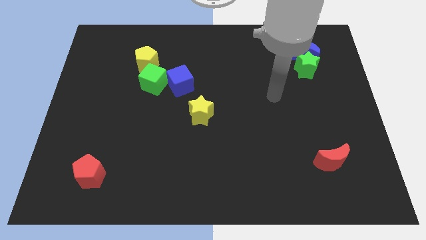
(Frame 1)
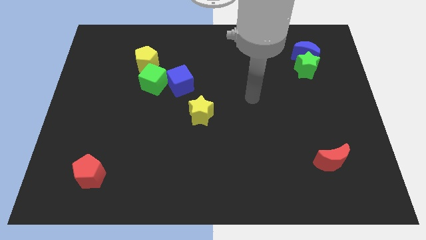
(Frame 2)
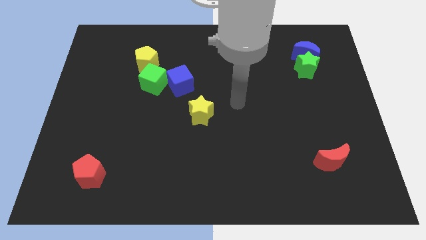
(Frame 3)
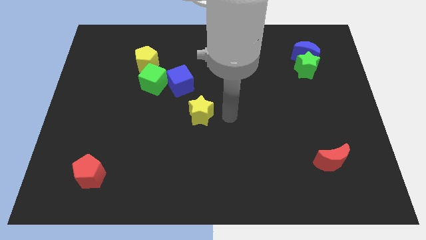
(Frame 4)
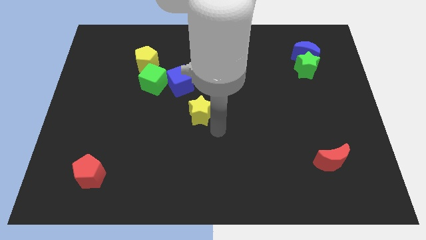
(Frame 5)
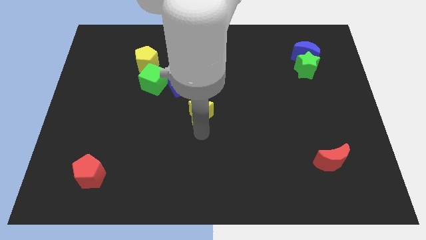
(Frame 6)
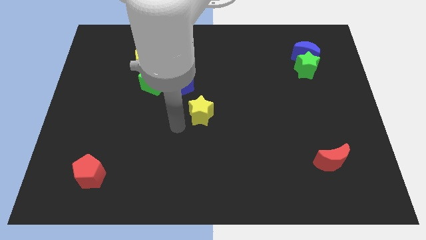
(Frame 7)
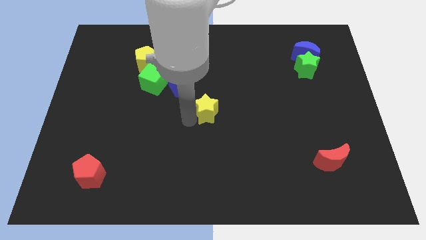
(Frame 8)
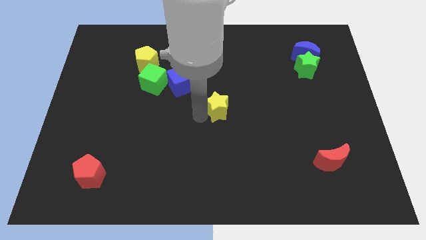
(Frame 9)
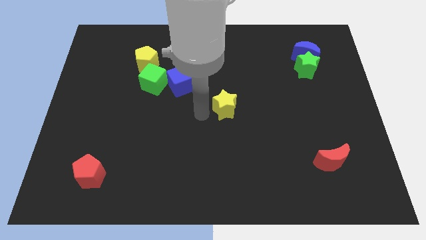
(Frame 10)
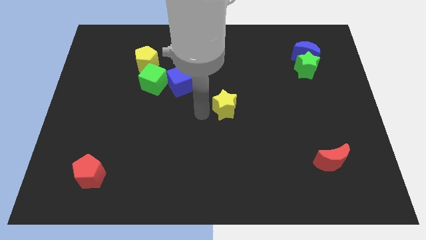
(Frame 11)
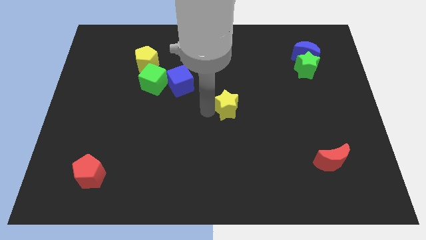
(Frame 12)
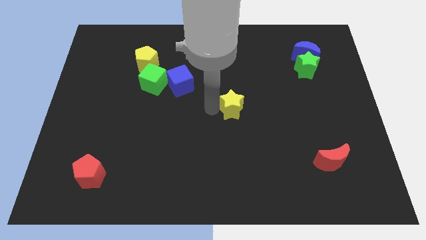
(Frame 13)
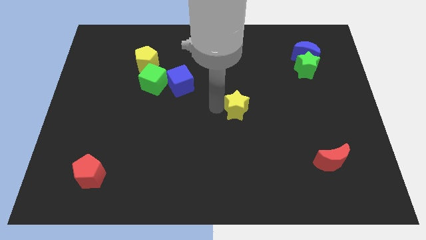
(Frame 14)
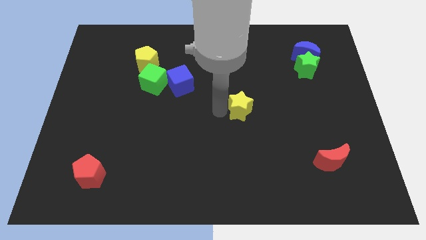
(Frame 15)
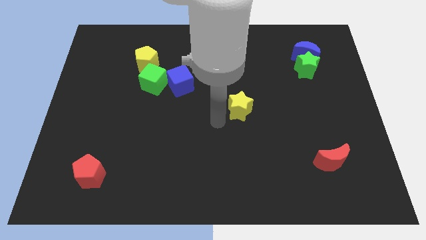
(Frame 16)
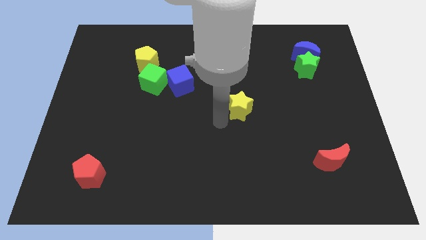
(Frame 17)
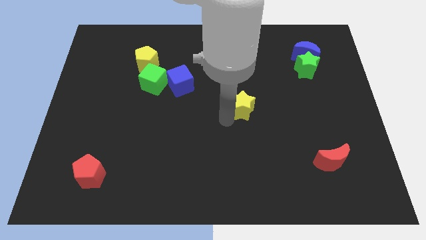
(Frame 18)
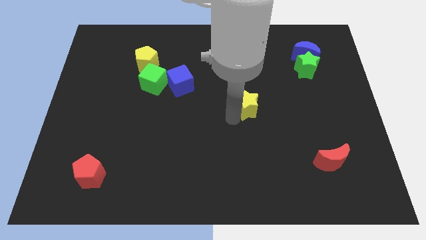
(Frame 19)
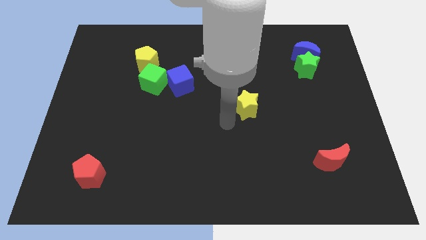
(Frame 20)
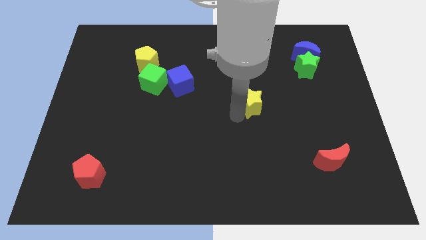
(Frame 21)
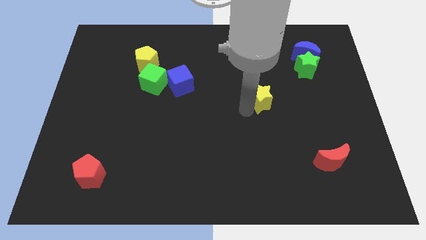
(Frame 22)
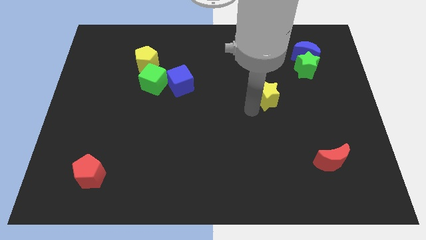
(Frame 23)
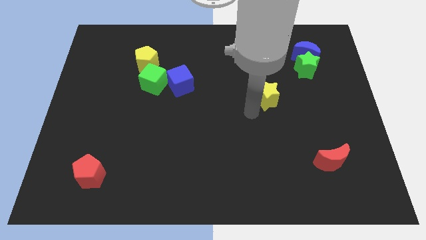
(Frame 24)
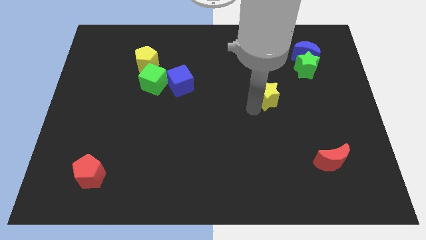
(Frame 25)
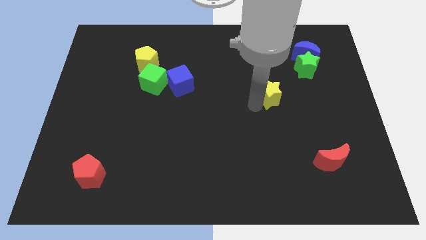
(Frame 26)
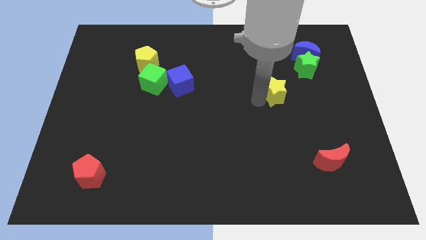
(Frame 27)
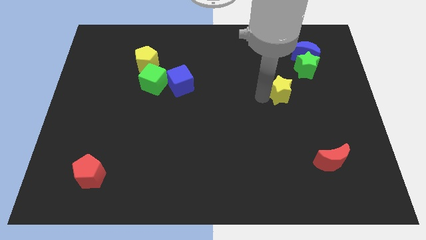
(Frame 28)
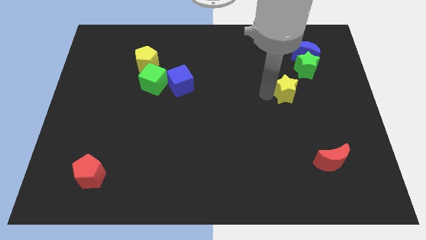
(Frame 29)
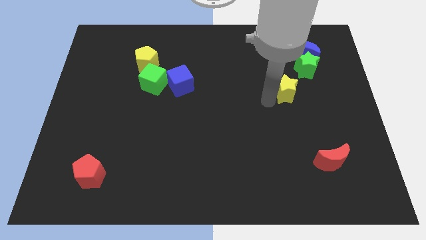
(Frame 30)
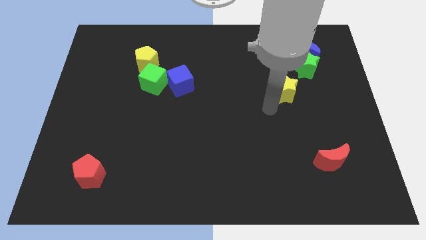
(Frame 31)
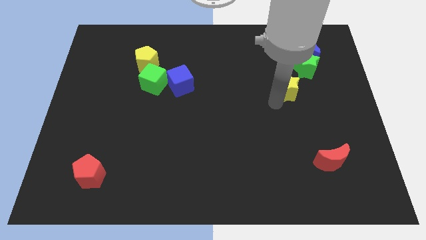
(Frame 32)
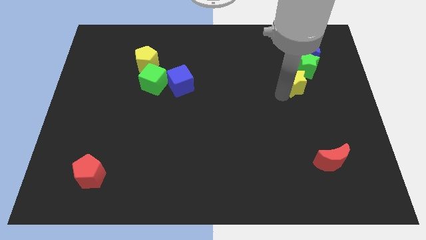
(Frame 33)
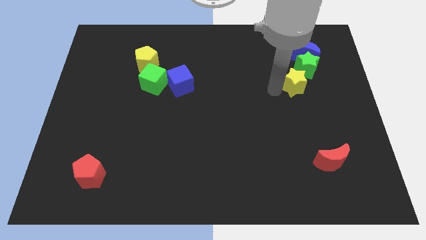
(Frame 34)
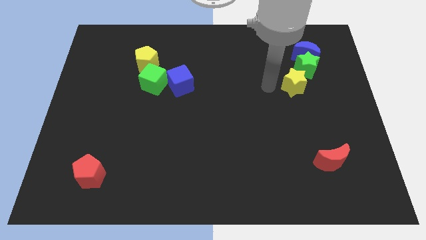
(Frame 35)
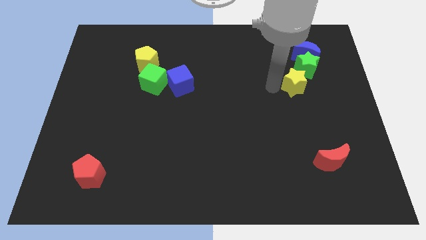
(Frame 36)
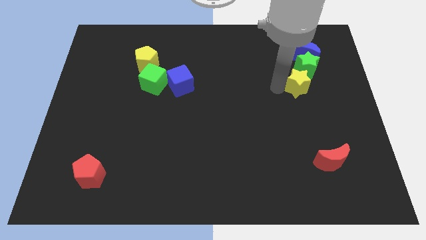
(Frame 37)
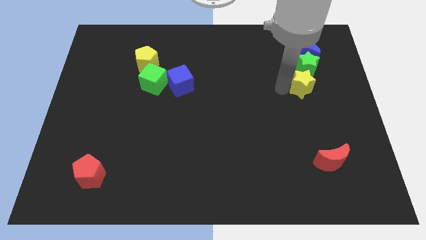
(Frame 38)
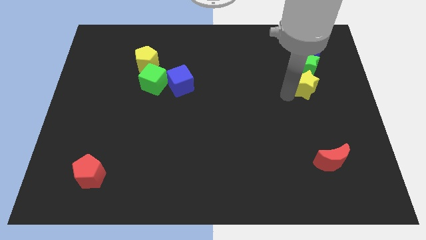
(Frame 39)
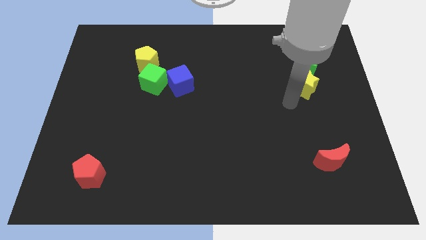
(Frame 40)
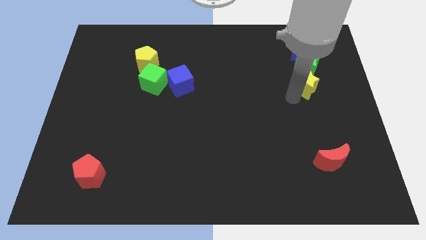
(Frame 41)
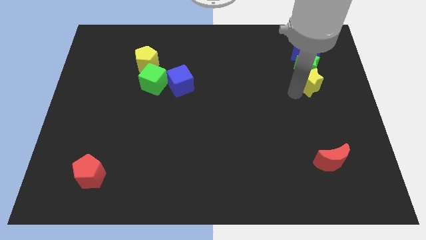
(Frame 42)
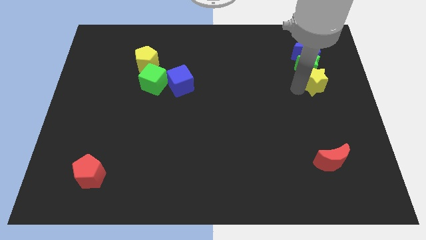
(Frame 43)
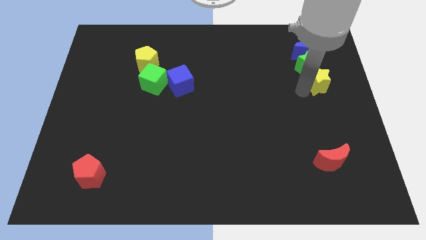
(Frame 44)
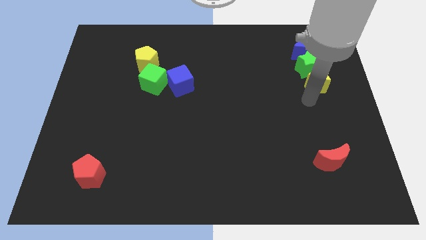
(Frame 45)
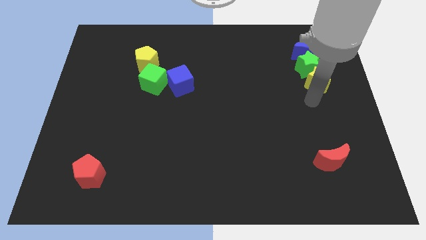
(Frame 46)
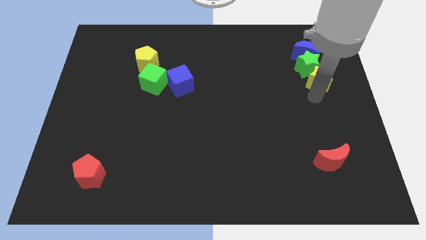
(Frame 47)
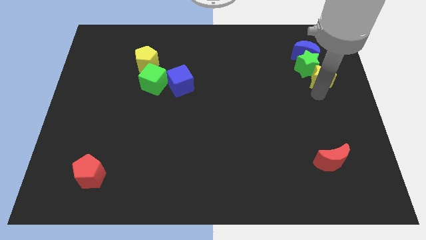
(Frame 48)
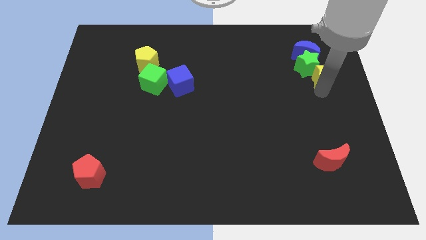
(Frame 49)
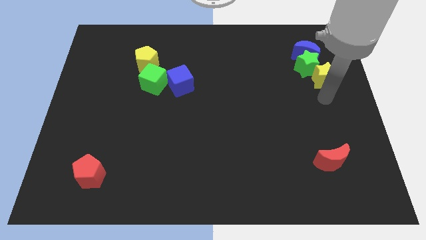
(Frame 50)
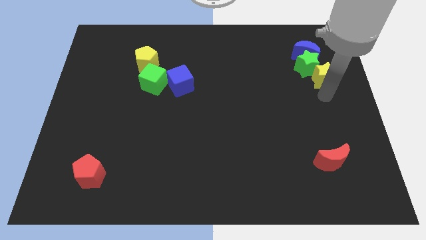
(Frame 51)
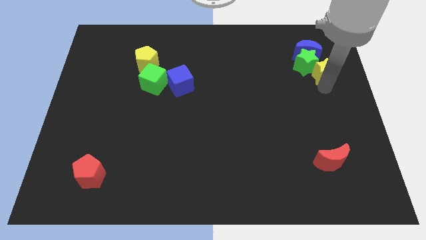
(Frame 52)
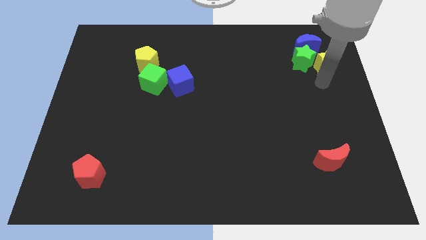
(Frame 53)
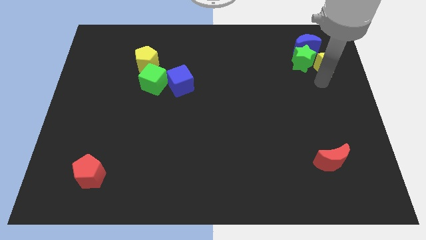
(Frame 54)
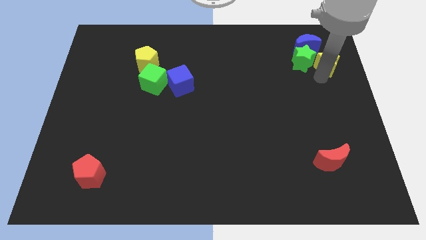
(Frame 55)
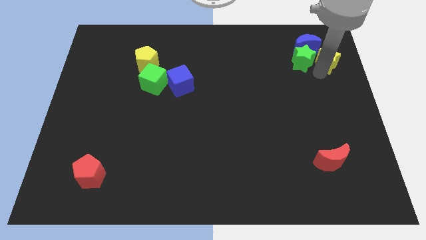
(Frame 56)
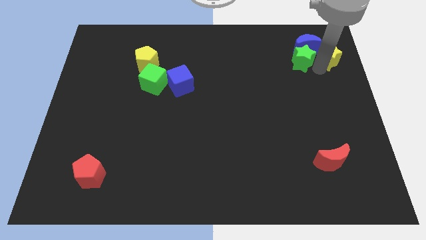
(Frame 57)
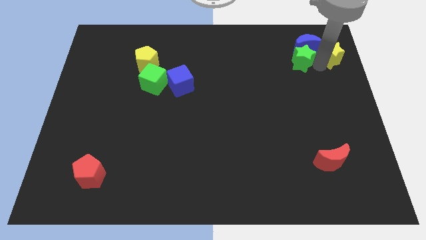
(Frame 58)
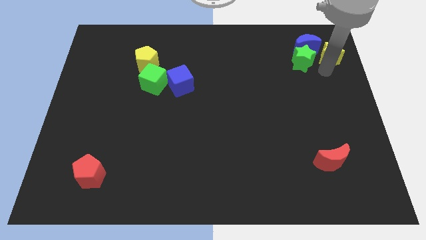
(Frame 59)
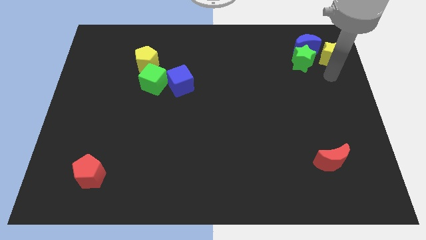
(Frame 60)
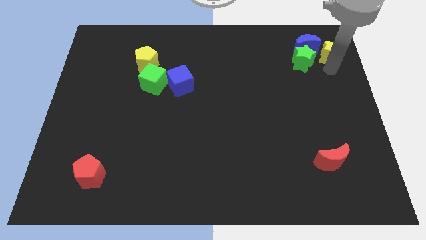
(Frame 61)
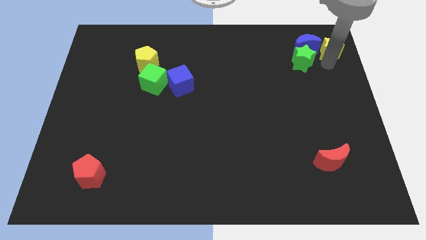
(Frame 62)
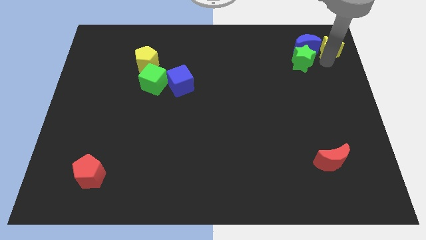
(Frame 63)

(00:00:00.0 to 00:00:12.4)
move the yellow star to the top right

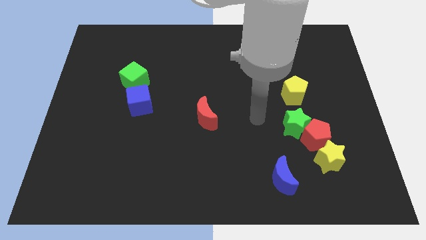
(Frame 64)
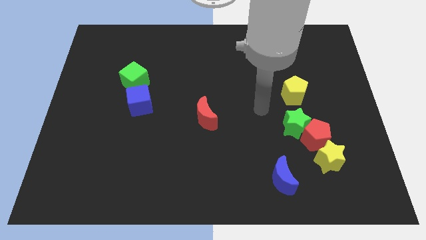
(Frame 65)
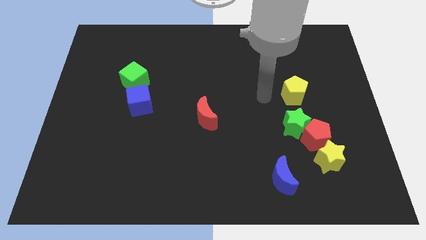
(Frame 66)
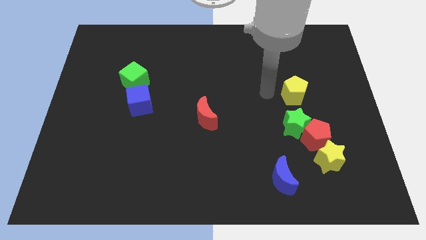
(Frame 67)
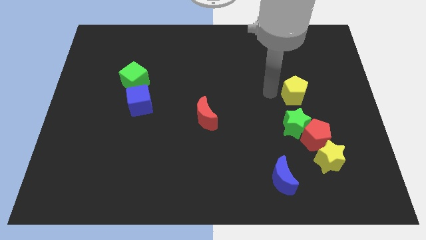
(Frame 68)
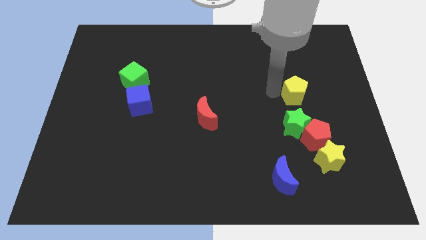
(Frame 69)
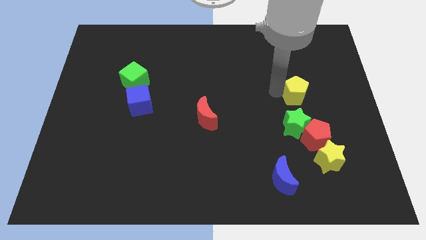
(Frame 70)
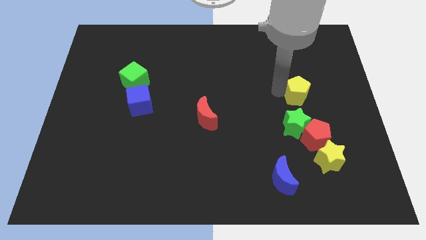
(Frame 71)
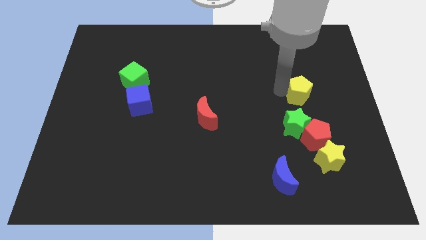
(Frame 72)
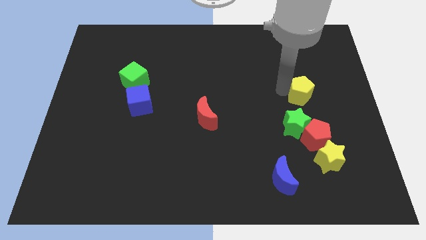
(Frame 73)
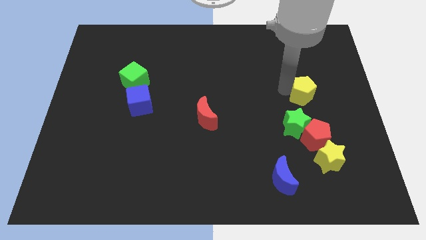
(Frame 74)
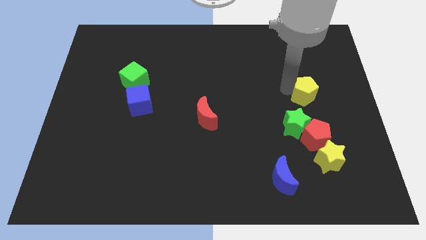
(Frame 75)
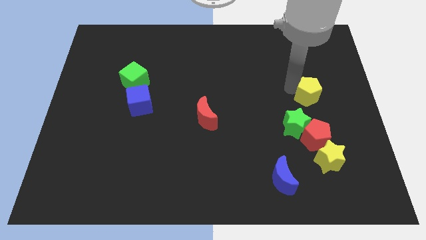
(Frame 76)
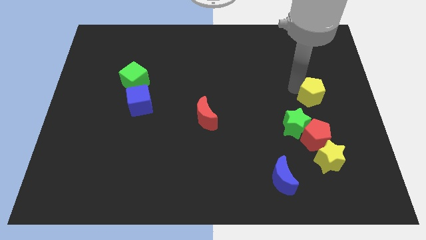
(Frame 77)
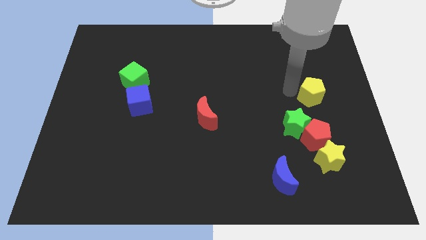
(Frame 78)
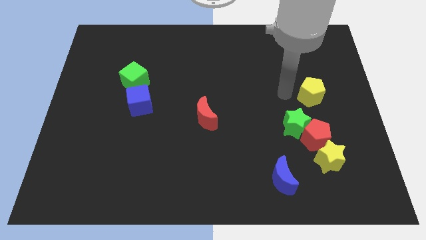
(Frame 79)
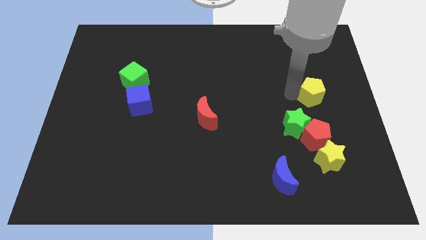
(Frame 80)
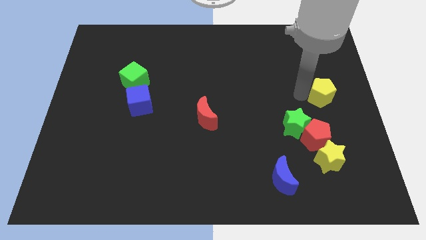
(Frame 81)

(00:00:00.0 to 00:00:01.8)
push the yellow pentagon to the right side of the board
